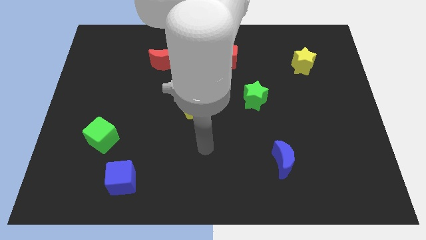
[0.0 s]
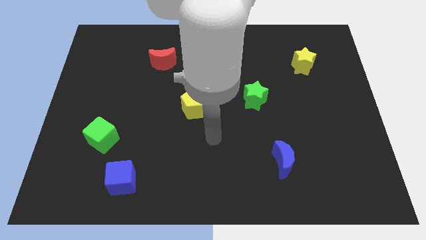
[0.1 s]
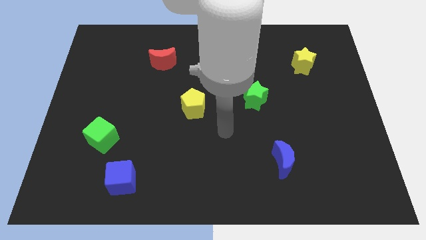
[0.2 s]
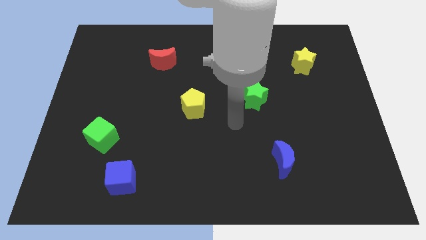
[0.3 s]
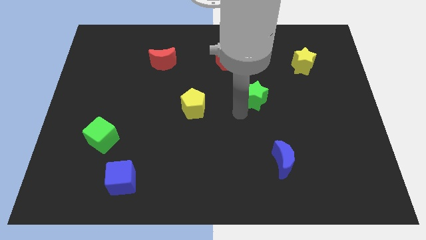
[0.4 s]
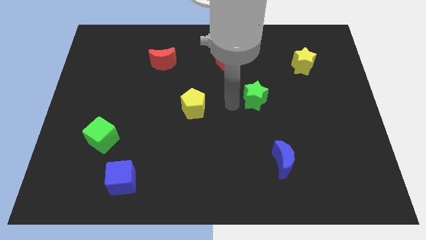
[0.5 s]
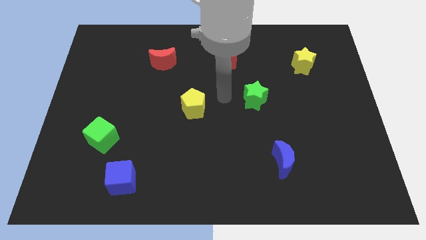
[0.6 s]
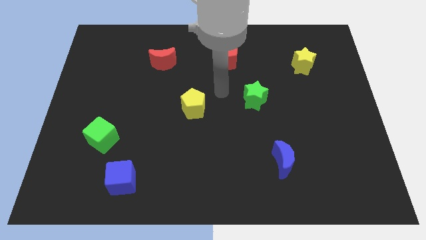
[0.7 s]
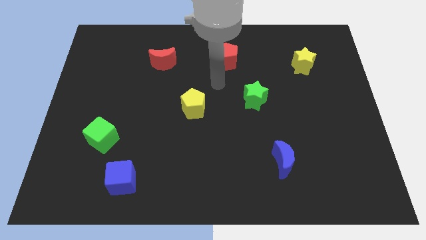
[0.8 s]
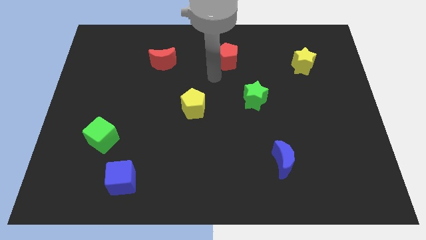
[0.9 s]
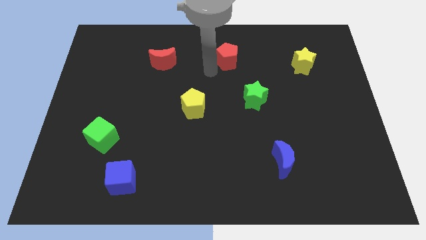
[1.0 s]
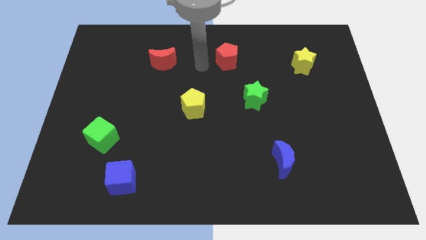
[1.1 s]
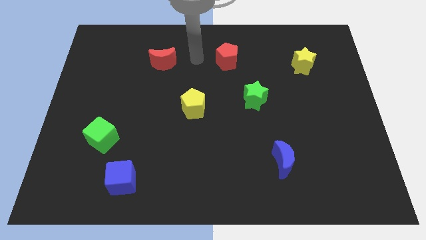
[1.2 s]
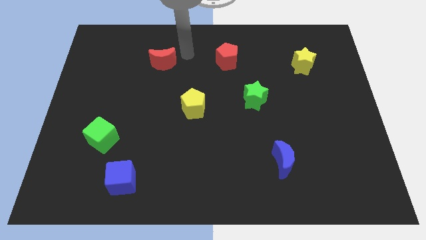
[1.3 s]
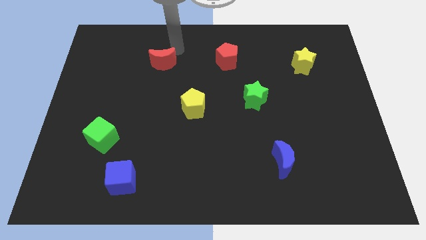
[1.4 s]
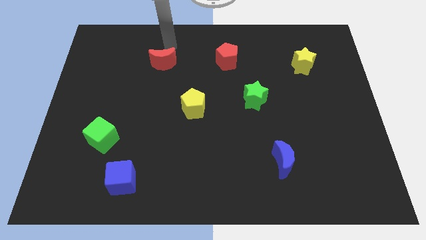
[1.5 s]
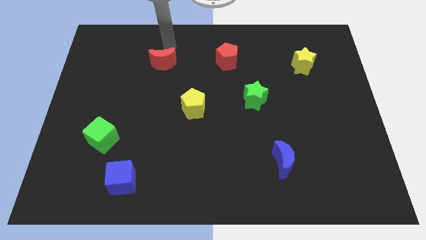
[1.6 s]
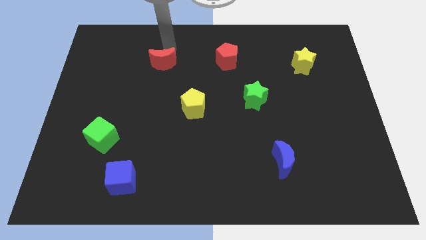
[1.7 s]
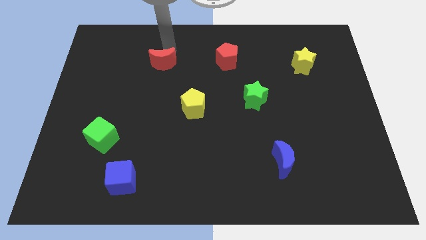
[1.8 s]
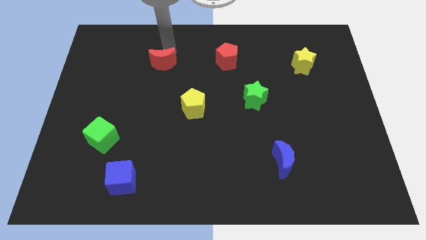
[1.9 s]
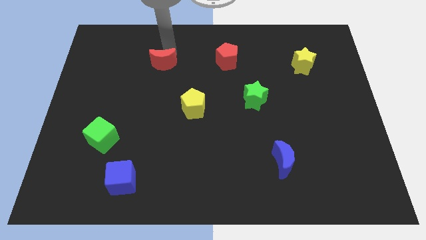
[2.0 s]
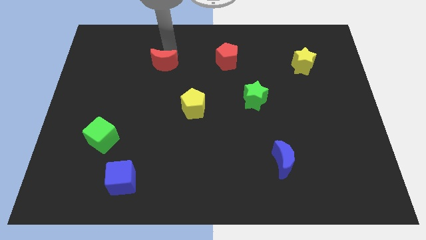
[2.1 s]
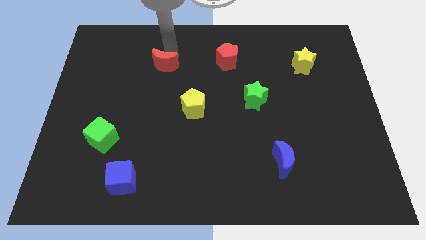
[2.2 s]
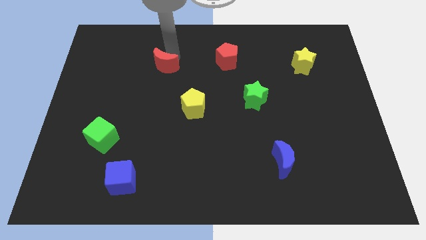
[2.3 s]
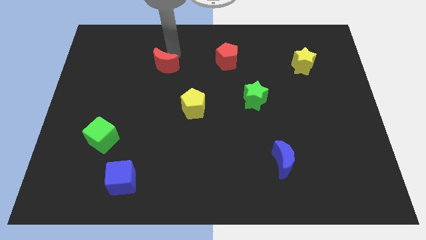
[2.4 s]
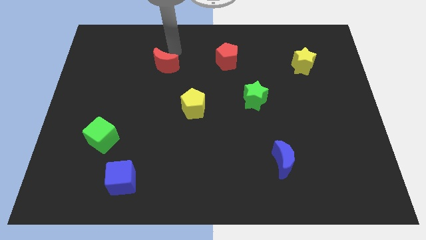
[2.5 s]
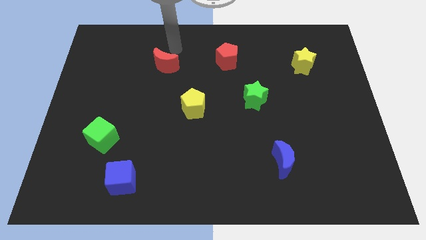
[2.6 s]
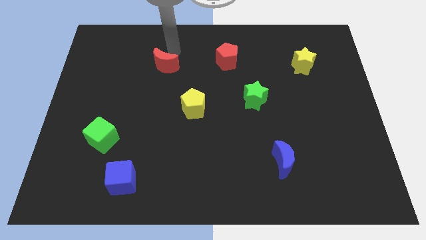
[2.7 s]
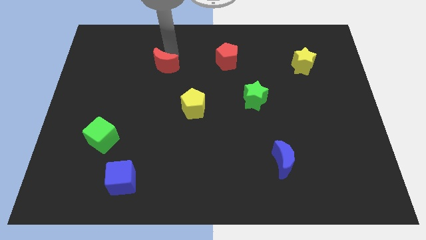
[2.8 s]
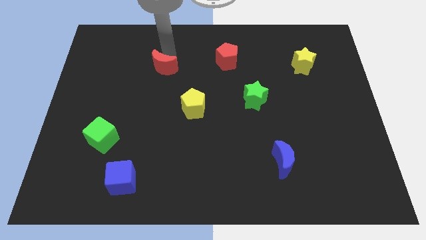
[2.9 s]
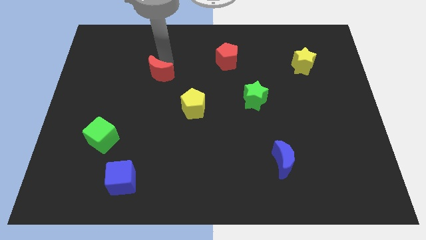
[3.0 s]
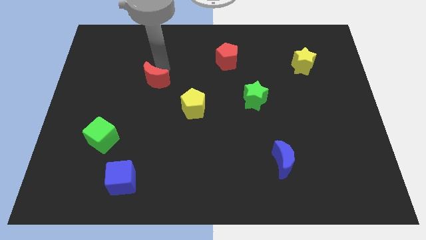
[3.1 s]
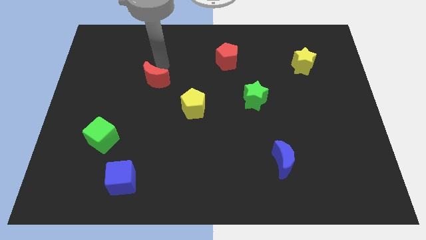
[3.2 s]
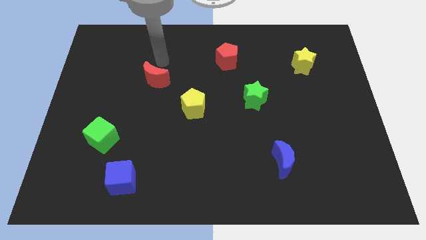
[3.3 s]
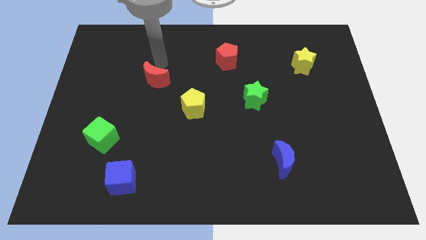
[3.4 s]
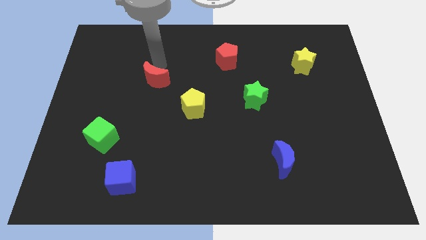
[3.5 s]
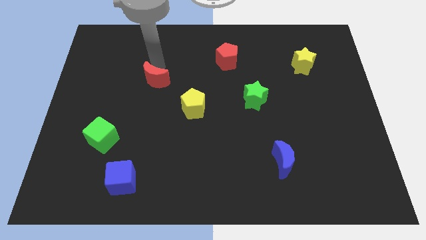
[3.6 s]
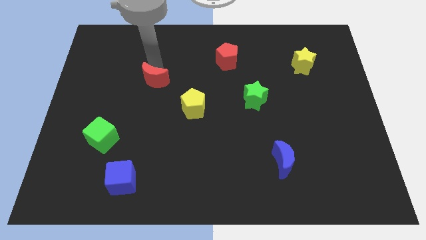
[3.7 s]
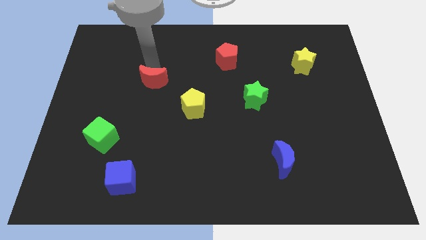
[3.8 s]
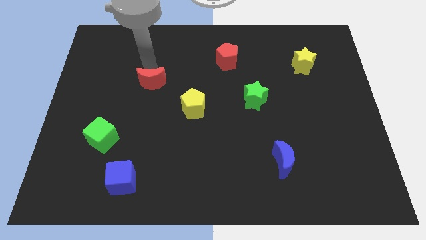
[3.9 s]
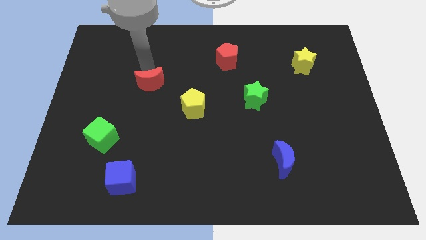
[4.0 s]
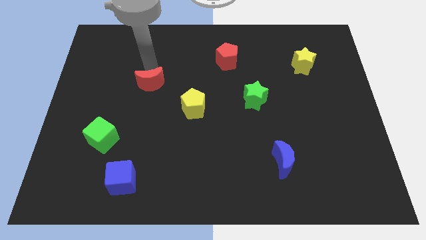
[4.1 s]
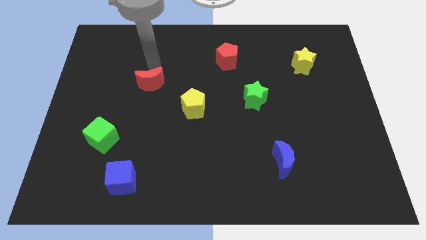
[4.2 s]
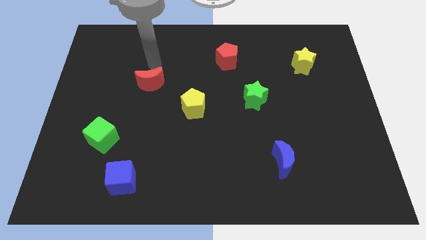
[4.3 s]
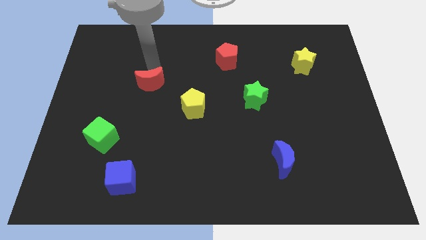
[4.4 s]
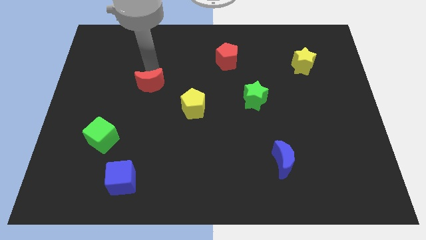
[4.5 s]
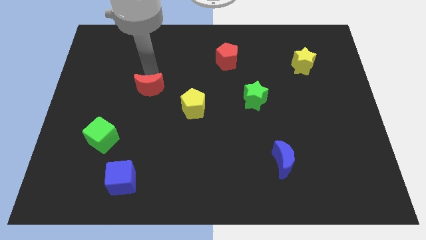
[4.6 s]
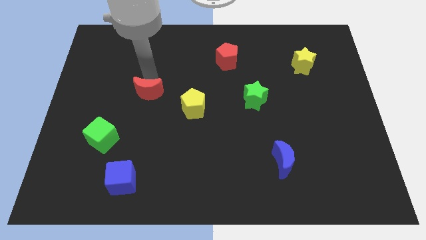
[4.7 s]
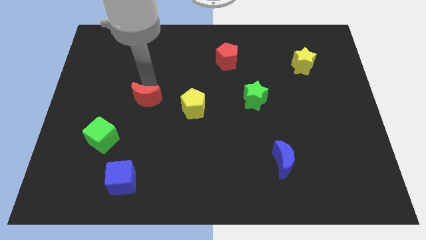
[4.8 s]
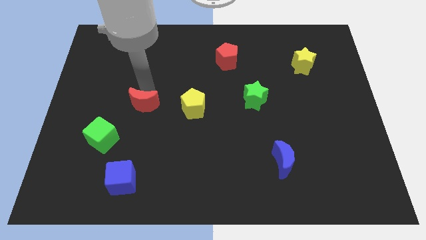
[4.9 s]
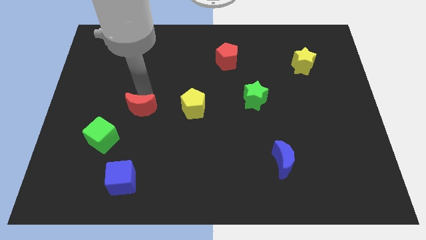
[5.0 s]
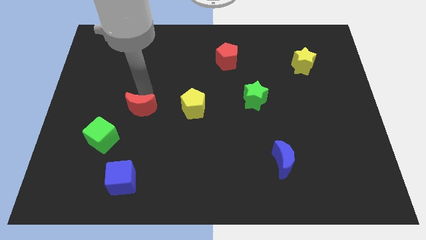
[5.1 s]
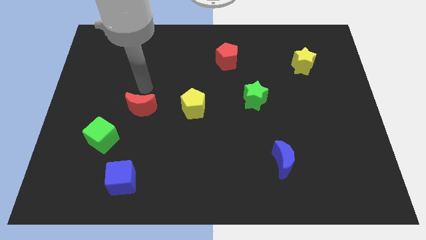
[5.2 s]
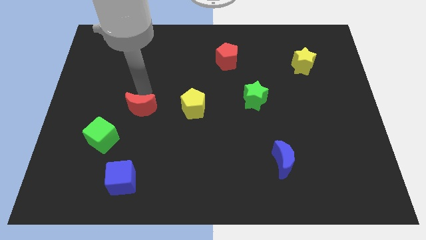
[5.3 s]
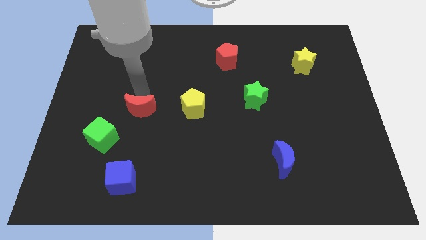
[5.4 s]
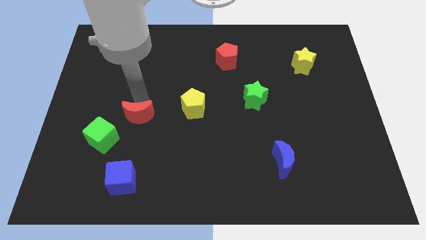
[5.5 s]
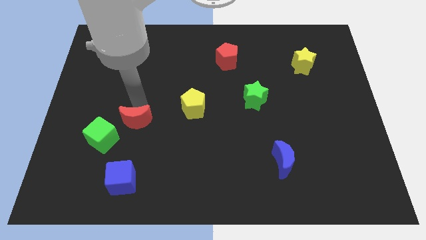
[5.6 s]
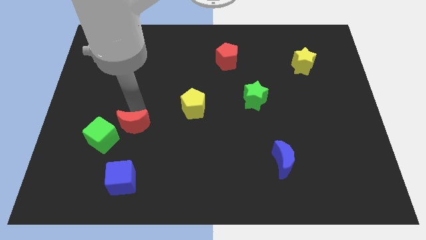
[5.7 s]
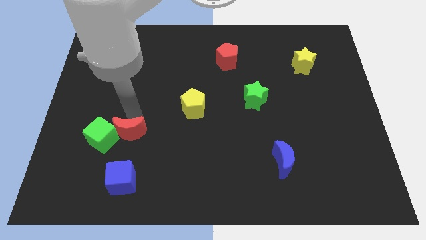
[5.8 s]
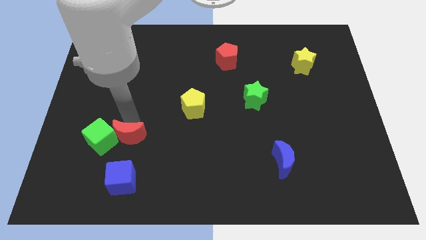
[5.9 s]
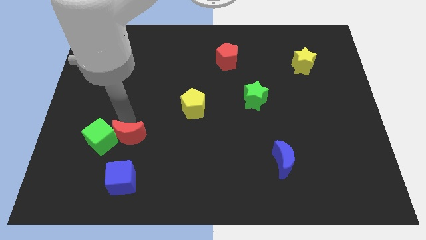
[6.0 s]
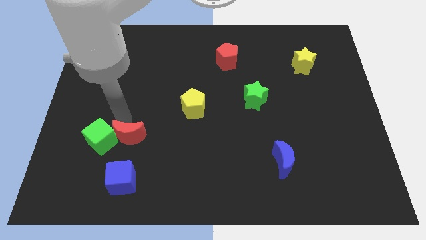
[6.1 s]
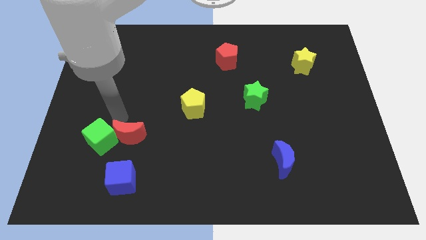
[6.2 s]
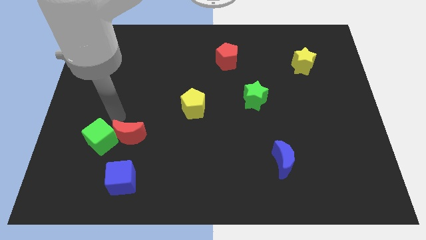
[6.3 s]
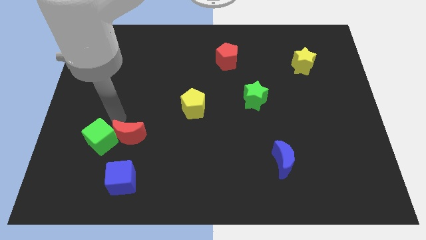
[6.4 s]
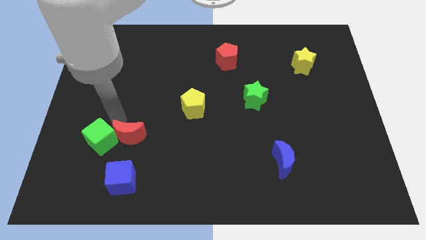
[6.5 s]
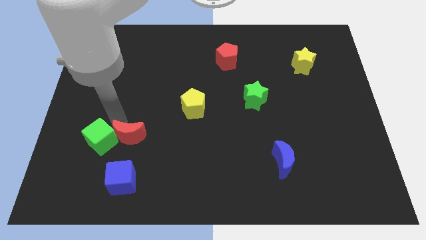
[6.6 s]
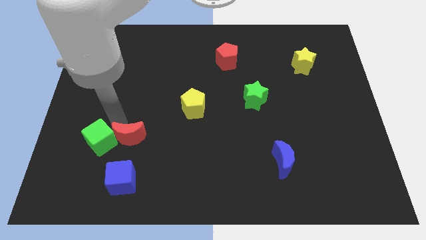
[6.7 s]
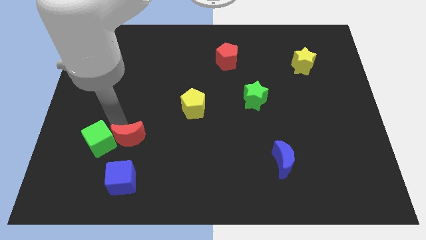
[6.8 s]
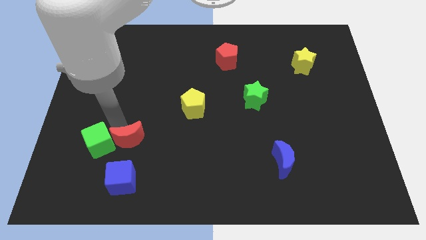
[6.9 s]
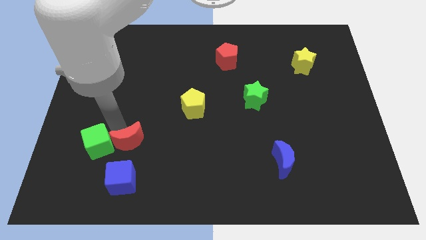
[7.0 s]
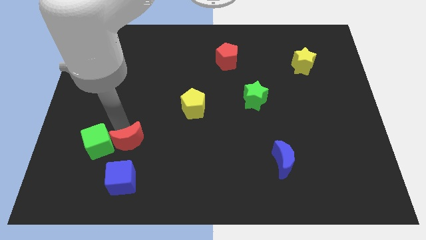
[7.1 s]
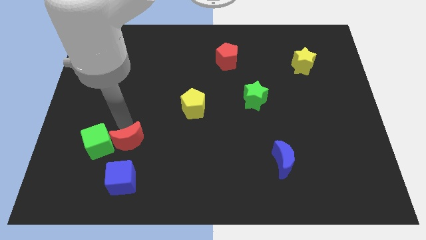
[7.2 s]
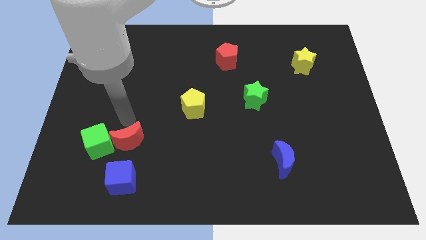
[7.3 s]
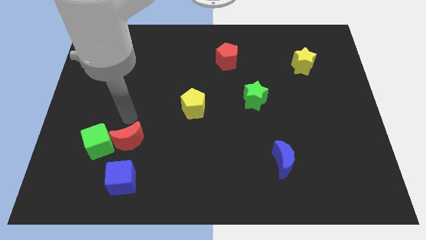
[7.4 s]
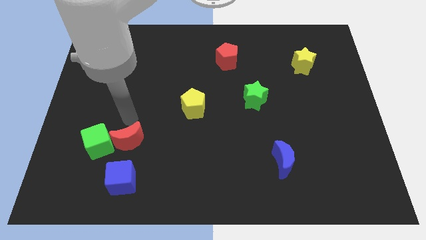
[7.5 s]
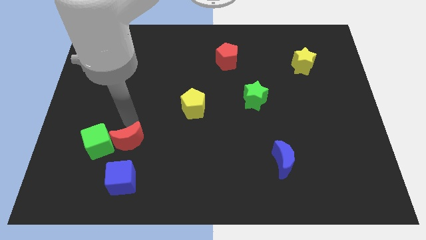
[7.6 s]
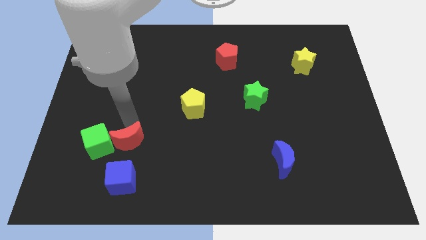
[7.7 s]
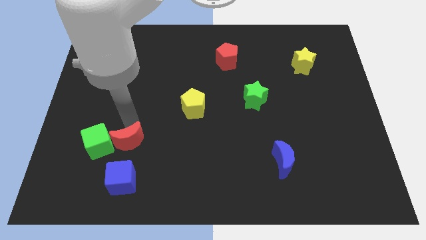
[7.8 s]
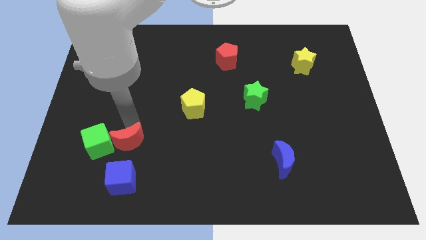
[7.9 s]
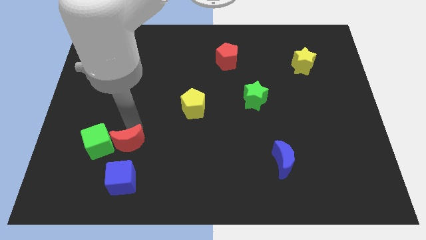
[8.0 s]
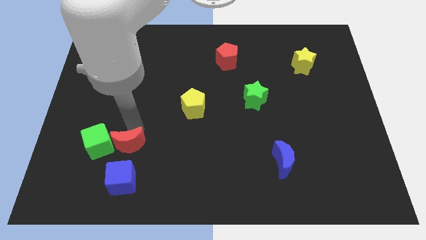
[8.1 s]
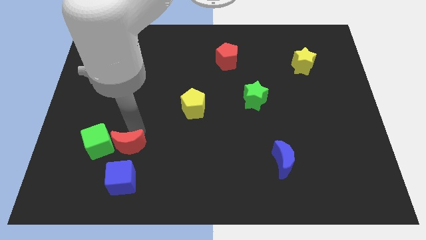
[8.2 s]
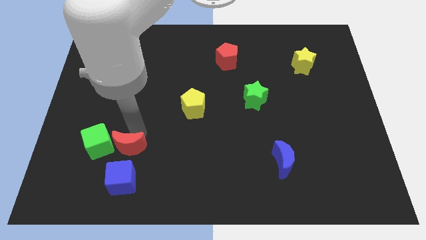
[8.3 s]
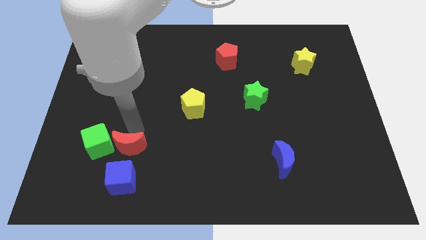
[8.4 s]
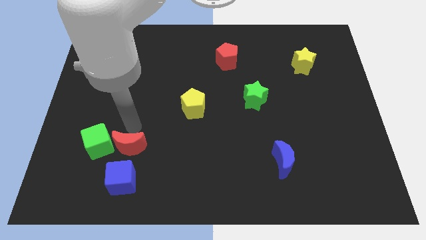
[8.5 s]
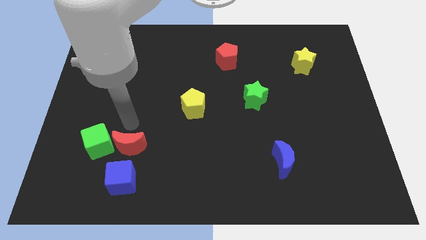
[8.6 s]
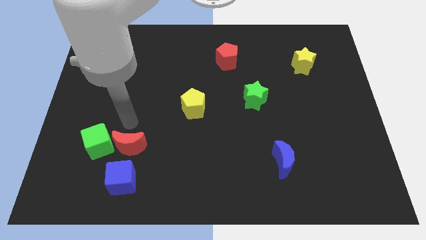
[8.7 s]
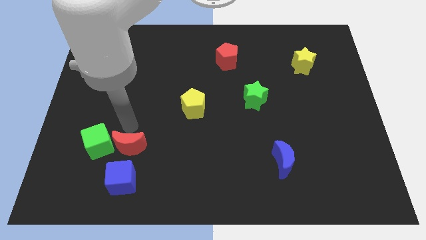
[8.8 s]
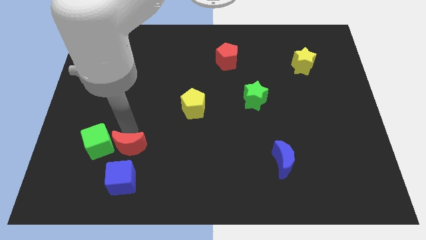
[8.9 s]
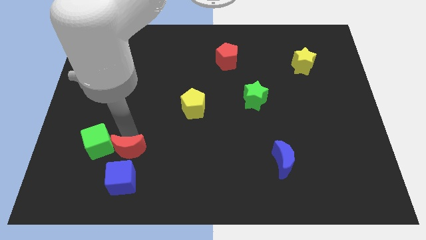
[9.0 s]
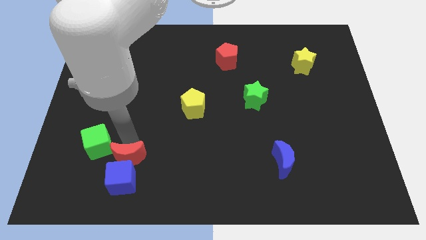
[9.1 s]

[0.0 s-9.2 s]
slide the red moon towards the blue cube
